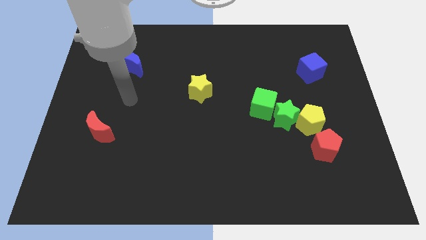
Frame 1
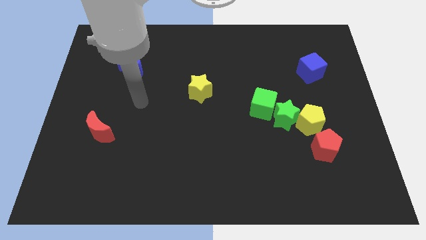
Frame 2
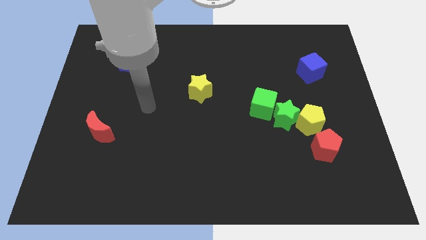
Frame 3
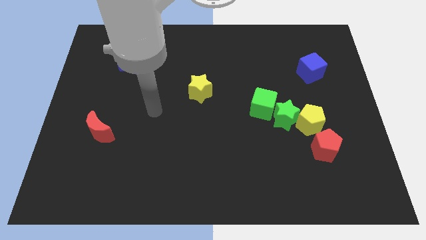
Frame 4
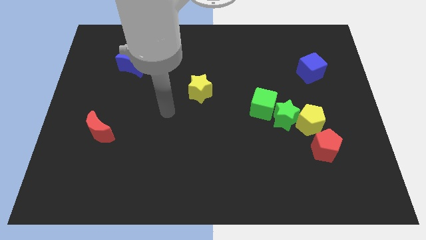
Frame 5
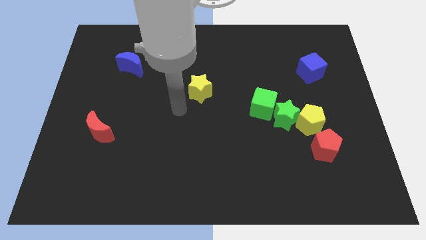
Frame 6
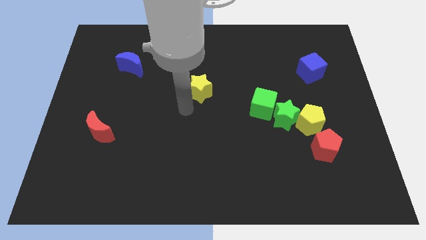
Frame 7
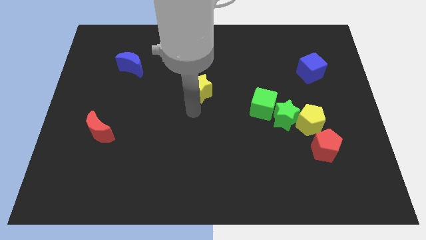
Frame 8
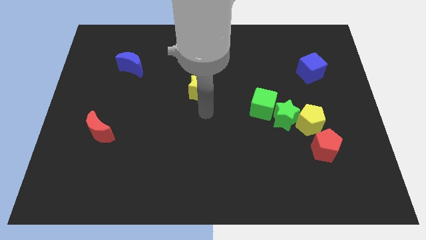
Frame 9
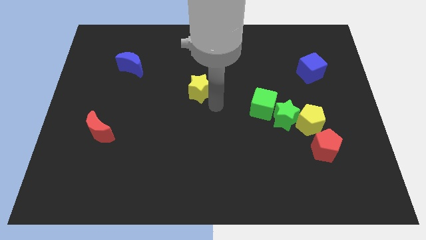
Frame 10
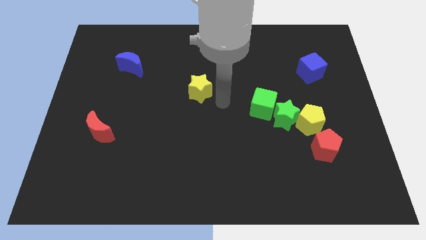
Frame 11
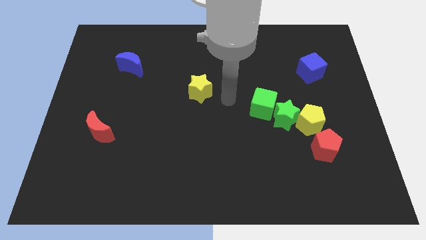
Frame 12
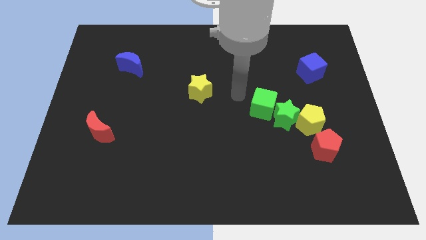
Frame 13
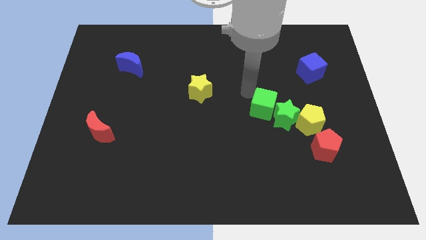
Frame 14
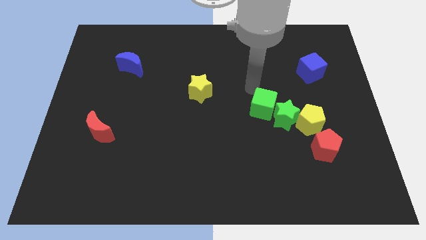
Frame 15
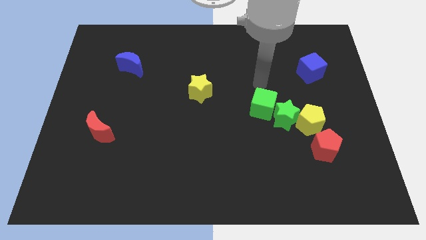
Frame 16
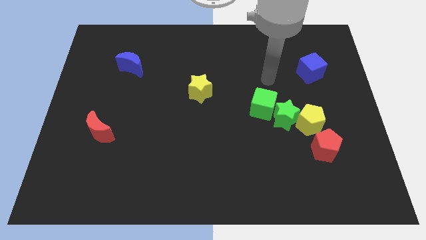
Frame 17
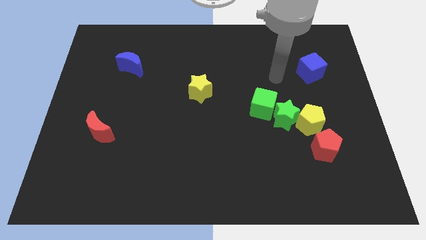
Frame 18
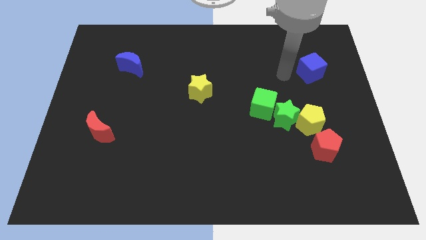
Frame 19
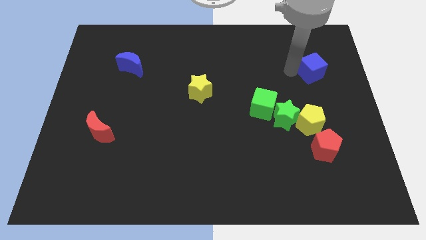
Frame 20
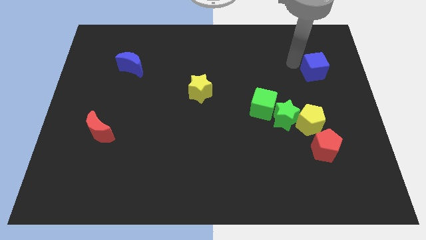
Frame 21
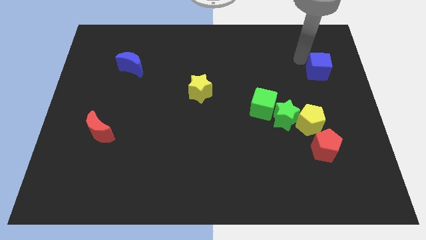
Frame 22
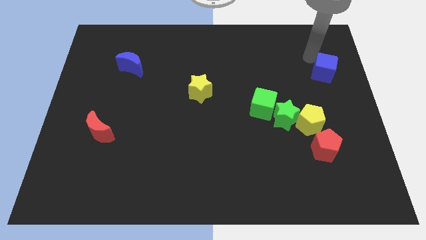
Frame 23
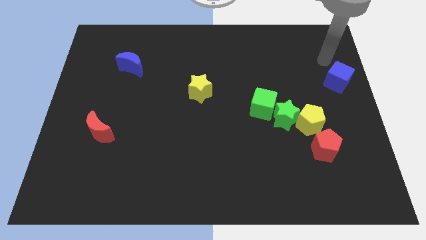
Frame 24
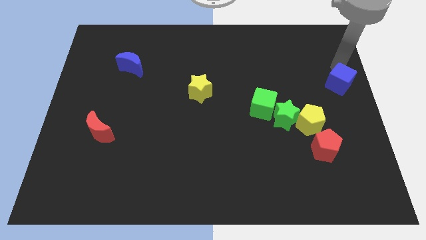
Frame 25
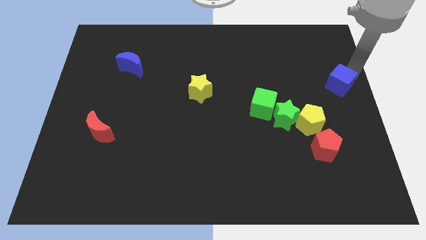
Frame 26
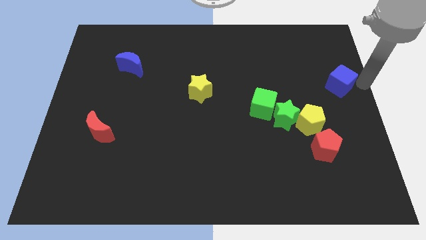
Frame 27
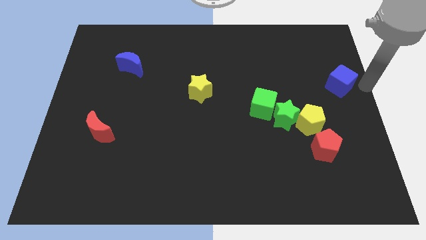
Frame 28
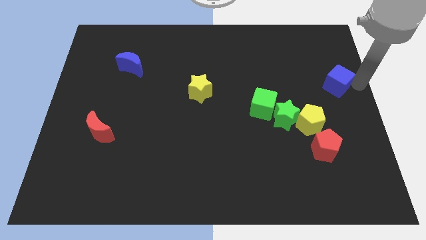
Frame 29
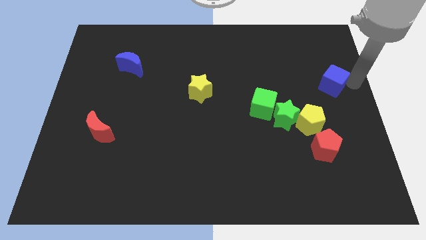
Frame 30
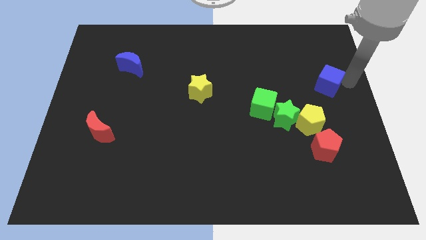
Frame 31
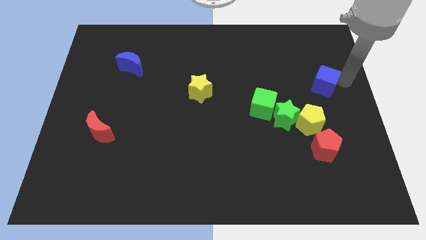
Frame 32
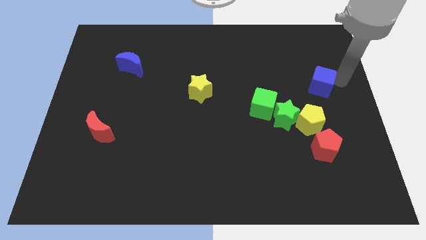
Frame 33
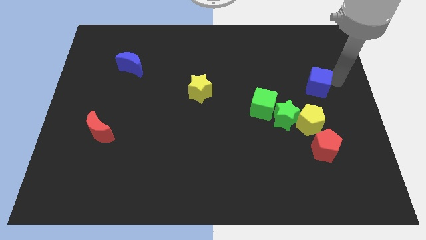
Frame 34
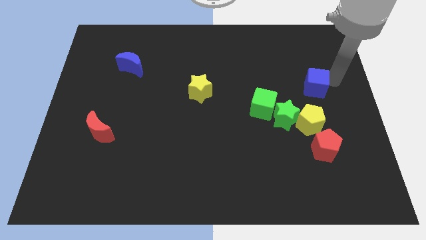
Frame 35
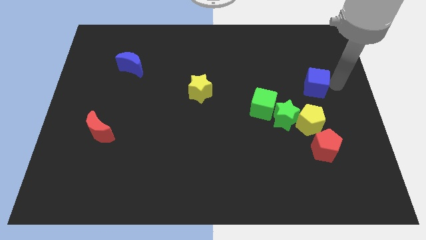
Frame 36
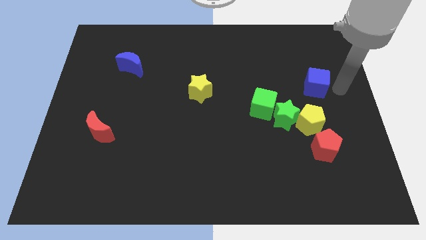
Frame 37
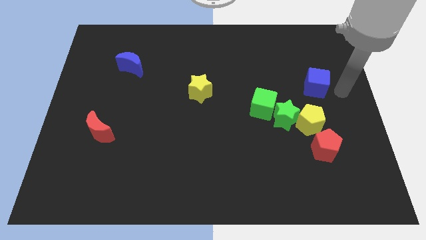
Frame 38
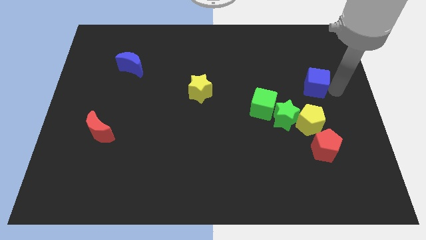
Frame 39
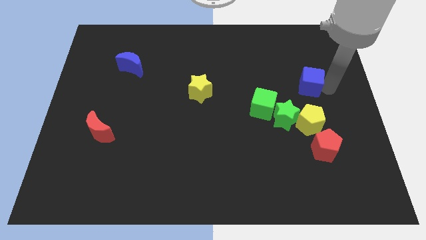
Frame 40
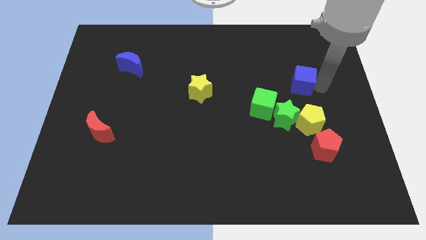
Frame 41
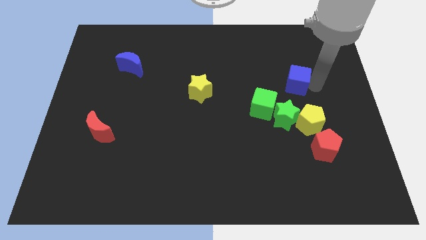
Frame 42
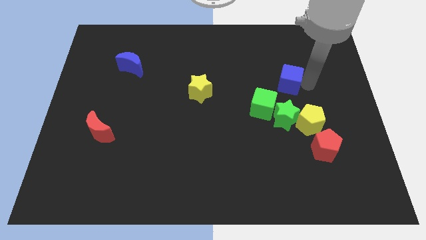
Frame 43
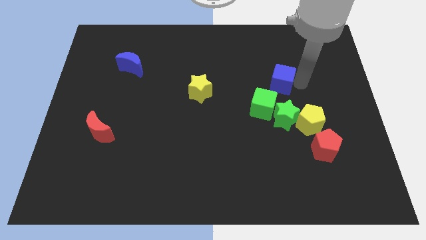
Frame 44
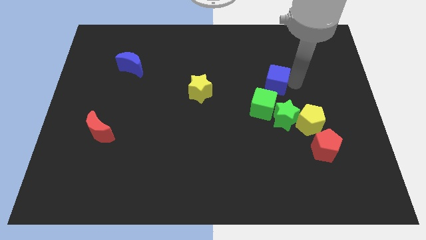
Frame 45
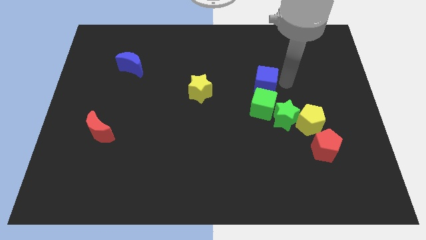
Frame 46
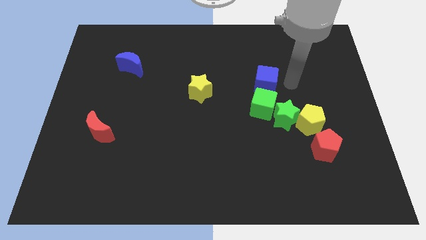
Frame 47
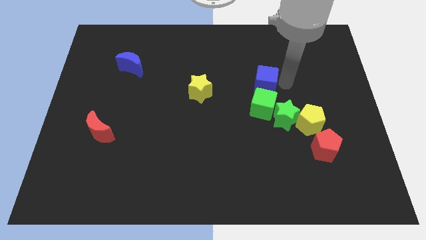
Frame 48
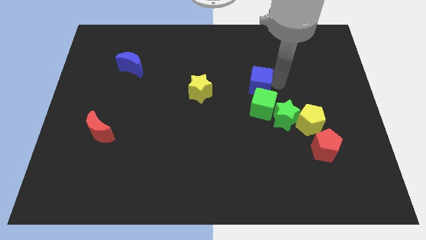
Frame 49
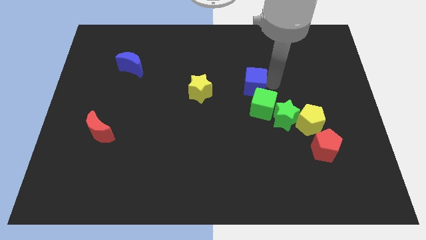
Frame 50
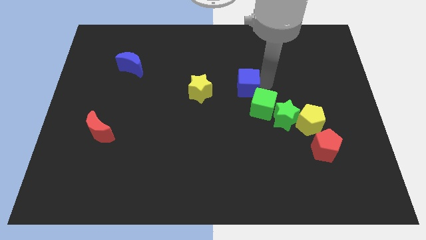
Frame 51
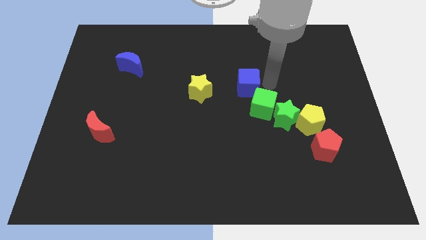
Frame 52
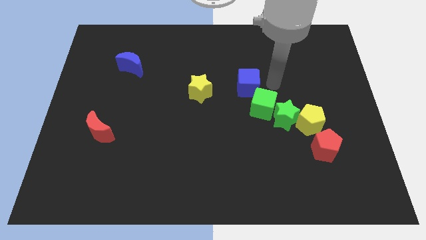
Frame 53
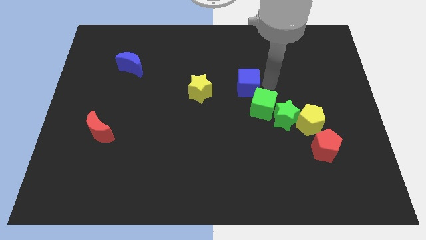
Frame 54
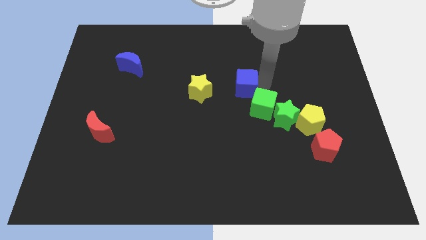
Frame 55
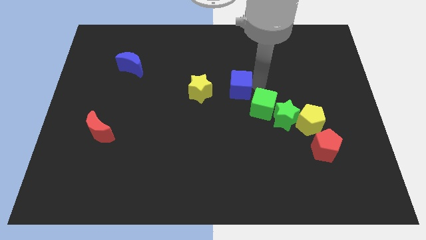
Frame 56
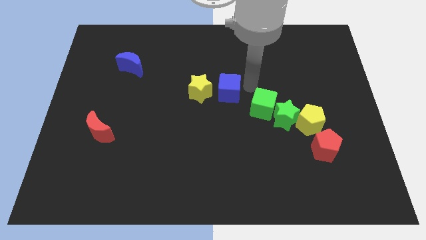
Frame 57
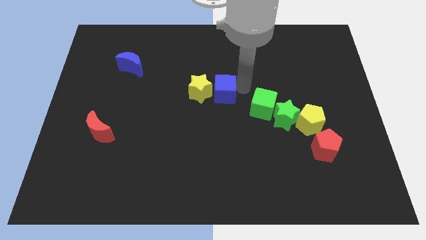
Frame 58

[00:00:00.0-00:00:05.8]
slide the blue cube to the yellow star
